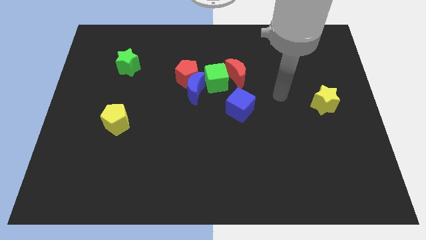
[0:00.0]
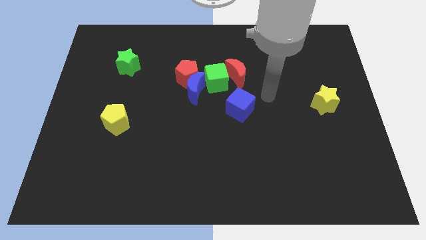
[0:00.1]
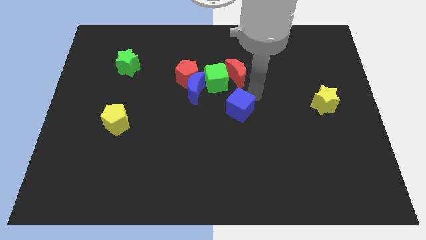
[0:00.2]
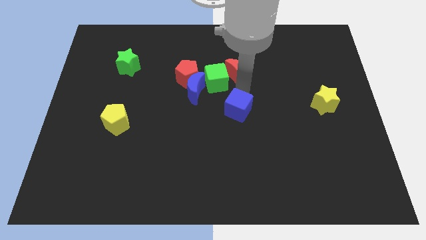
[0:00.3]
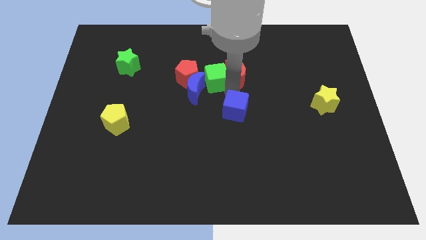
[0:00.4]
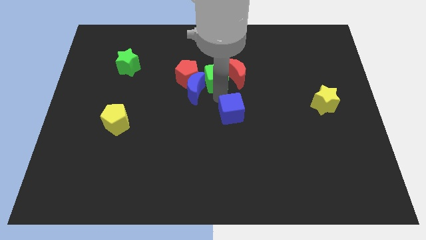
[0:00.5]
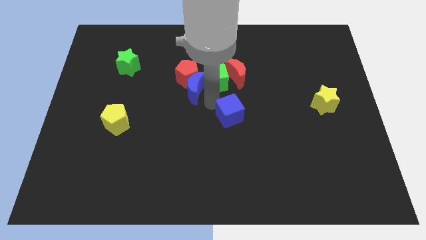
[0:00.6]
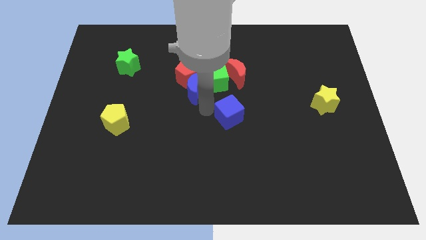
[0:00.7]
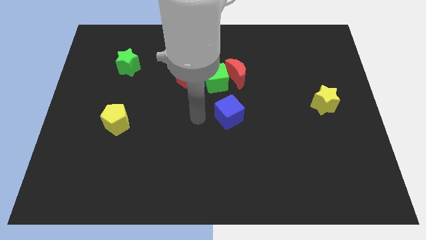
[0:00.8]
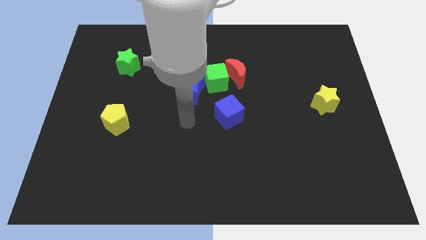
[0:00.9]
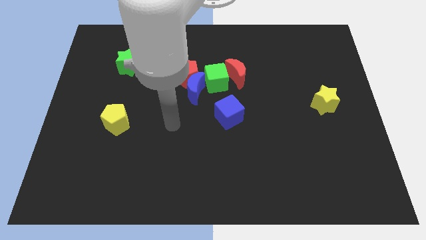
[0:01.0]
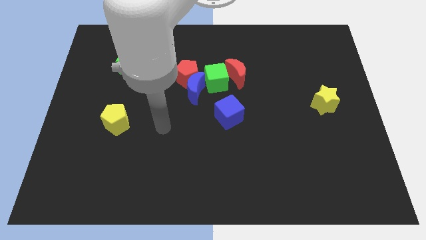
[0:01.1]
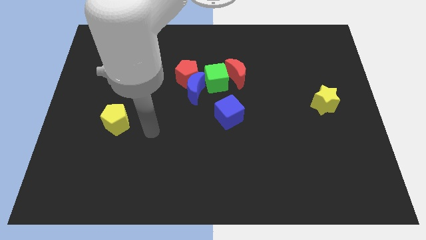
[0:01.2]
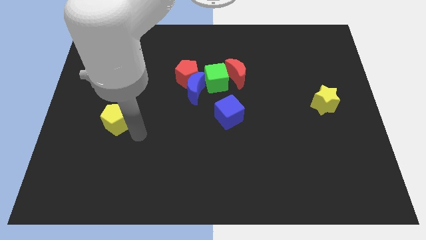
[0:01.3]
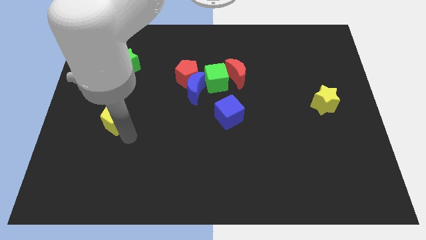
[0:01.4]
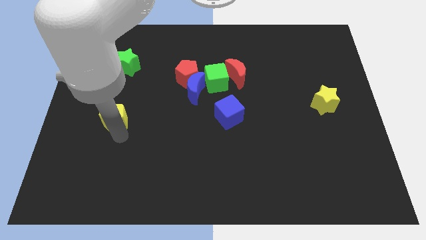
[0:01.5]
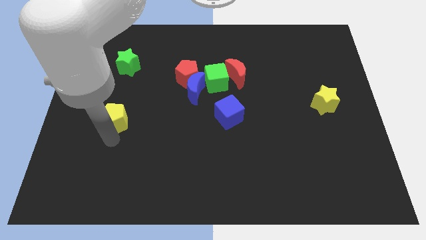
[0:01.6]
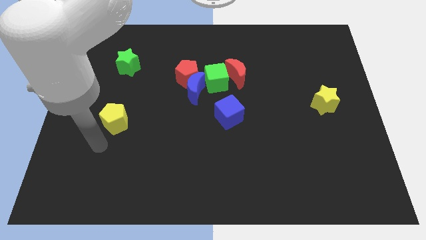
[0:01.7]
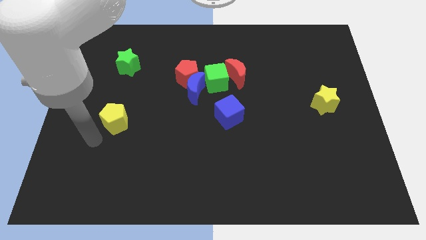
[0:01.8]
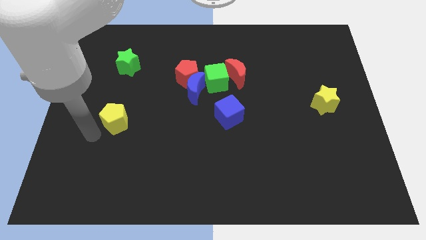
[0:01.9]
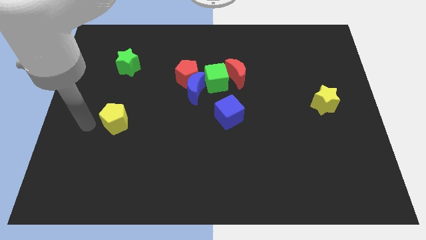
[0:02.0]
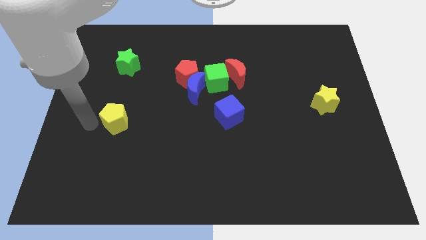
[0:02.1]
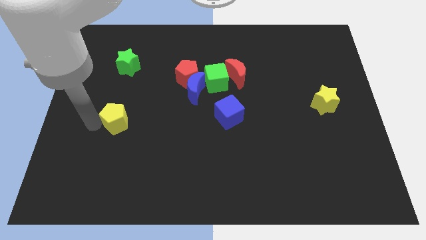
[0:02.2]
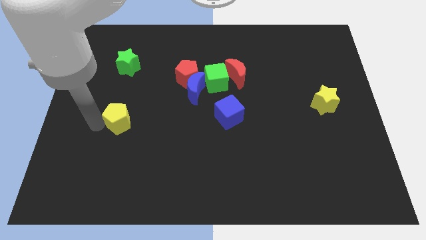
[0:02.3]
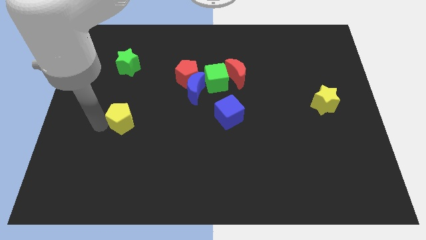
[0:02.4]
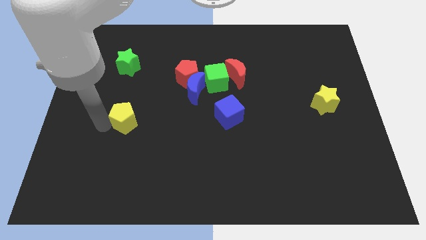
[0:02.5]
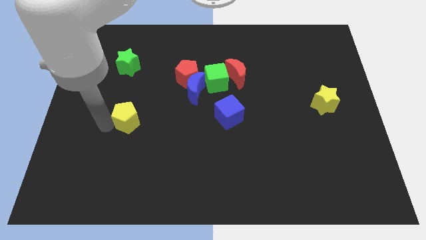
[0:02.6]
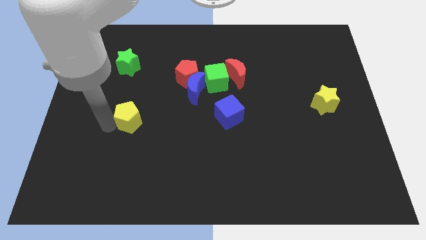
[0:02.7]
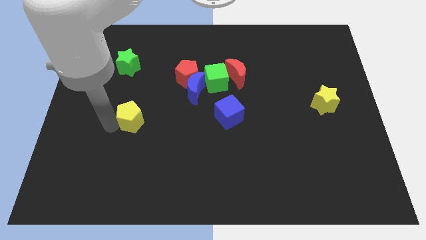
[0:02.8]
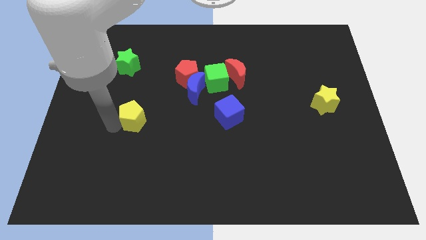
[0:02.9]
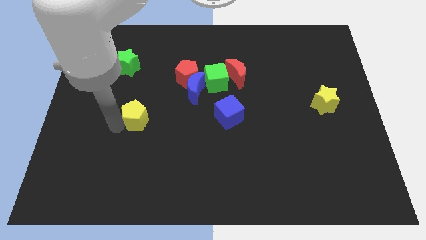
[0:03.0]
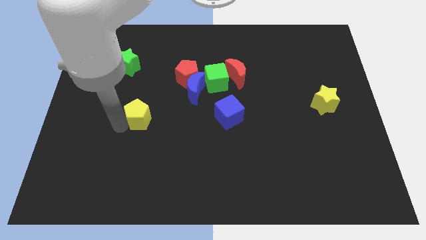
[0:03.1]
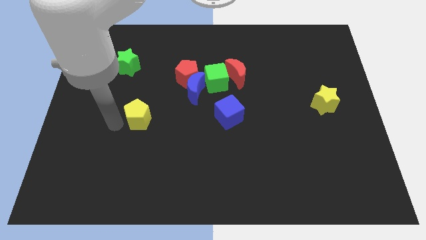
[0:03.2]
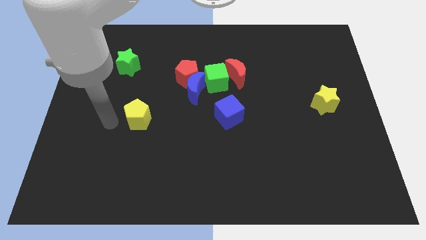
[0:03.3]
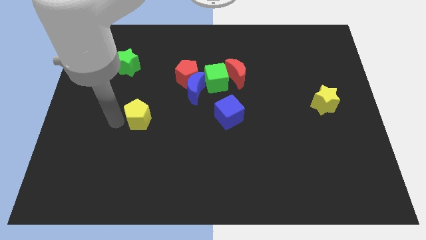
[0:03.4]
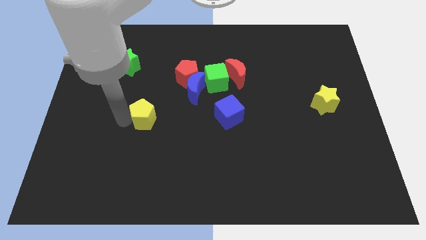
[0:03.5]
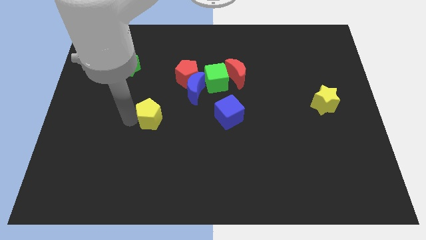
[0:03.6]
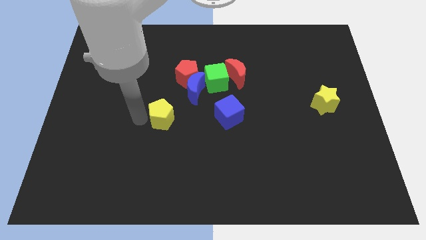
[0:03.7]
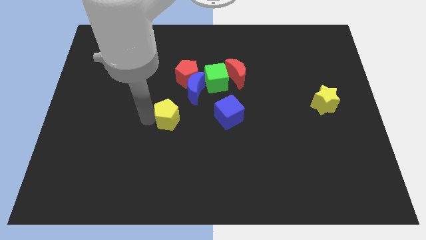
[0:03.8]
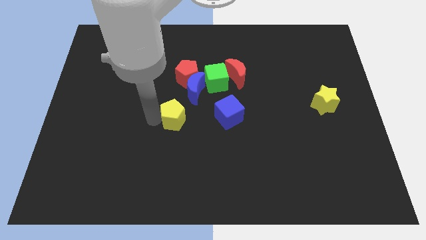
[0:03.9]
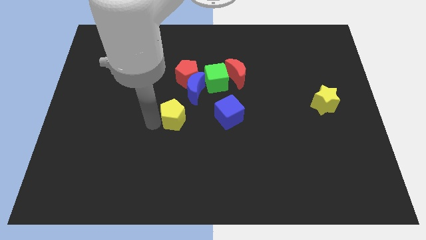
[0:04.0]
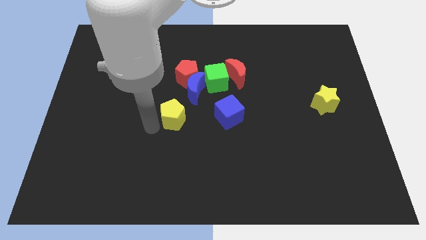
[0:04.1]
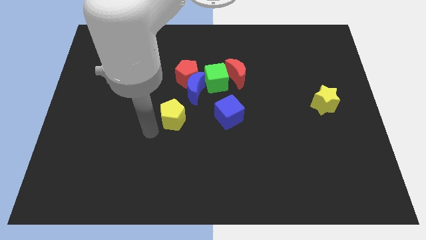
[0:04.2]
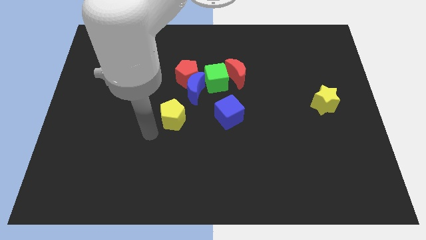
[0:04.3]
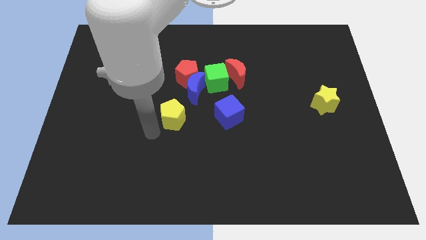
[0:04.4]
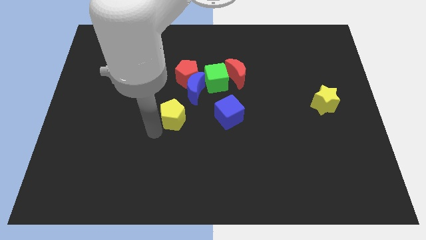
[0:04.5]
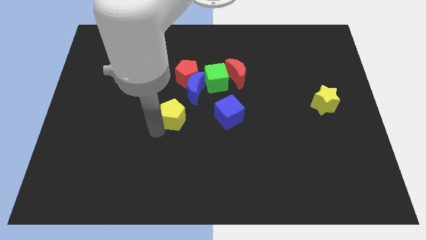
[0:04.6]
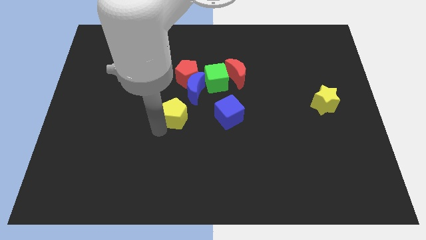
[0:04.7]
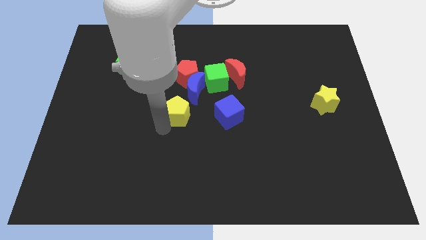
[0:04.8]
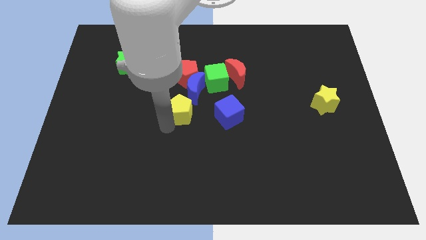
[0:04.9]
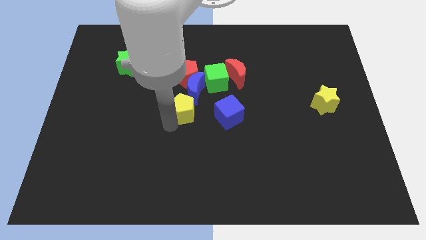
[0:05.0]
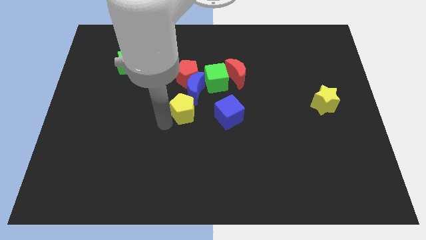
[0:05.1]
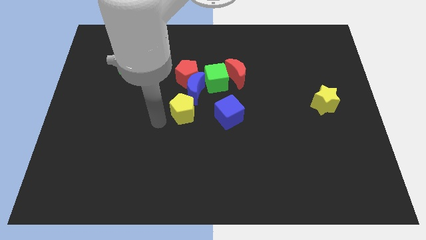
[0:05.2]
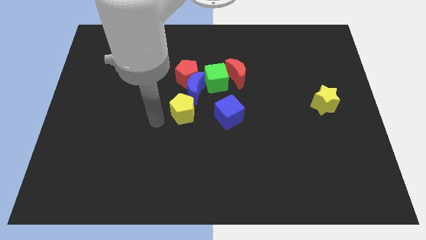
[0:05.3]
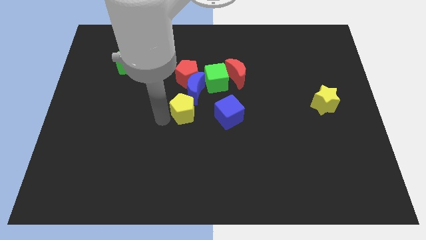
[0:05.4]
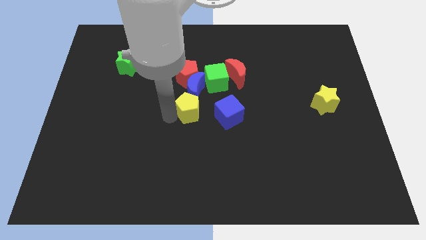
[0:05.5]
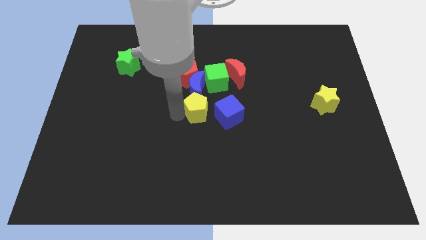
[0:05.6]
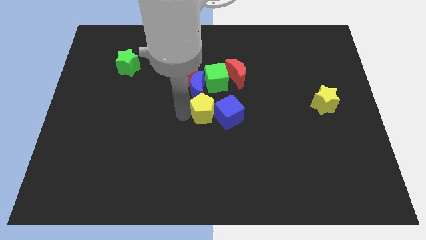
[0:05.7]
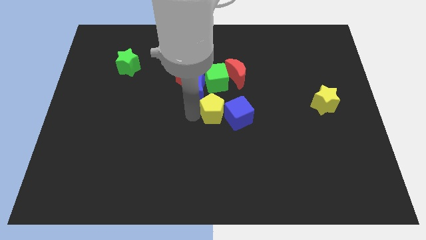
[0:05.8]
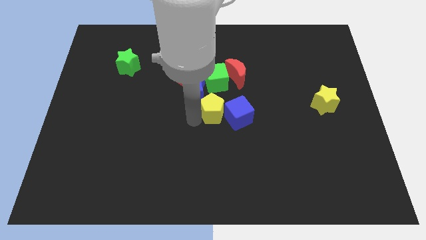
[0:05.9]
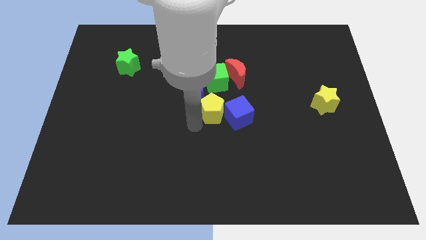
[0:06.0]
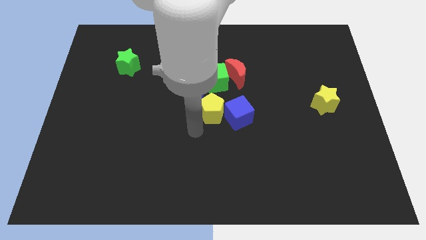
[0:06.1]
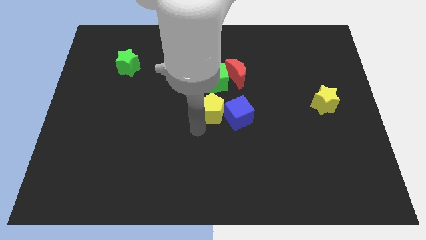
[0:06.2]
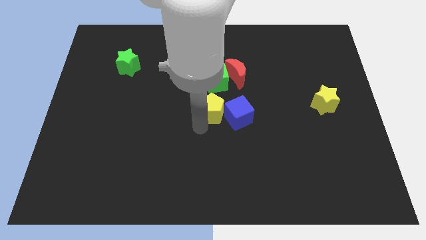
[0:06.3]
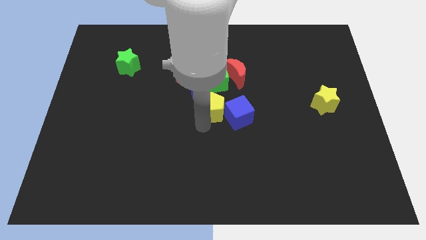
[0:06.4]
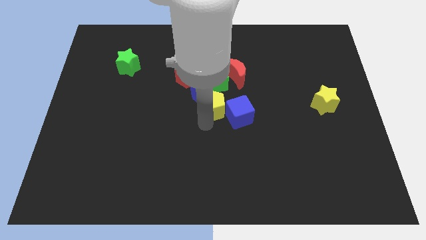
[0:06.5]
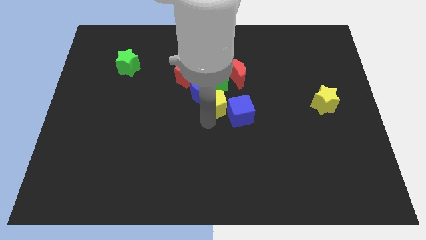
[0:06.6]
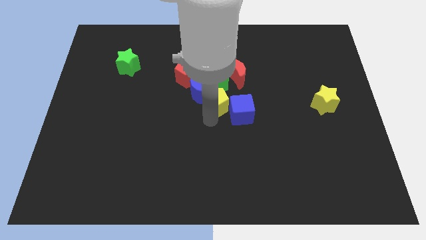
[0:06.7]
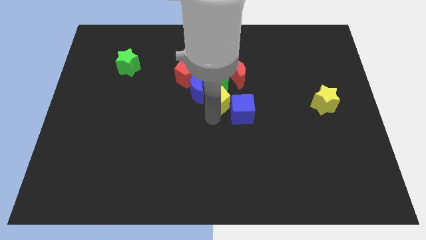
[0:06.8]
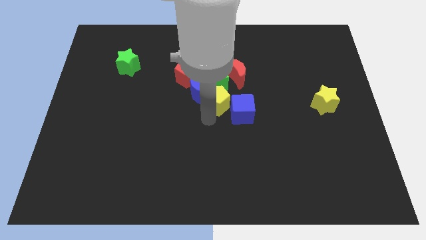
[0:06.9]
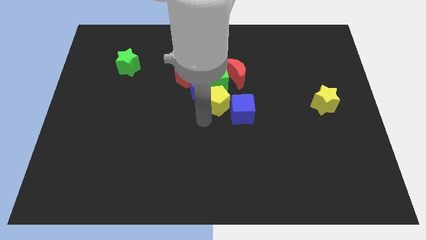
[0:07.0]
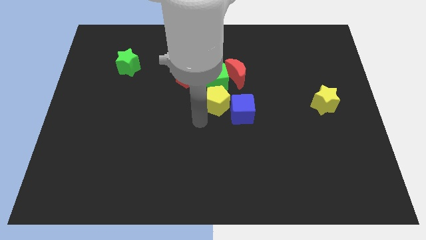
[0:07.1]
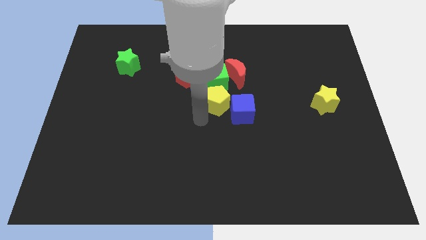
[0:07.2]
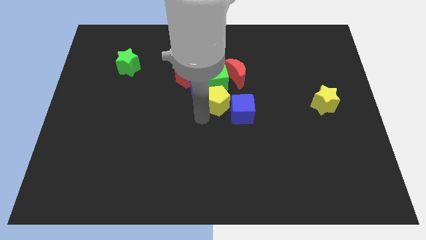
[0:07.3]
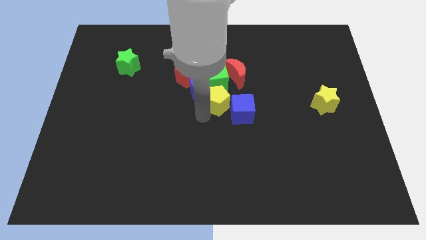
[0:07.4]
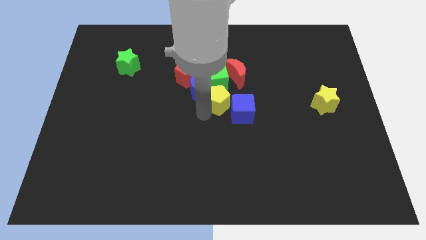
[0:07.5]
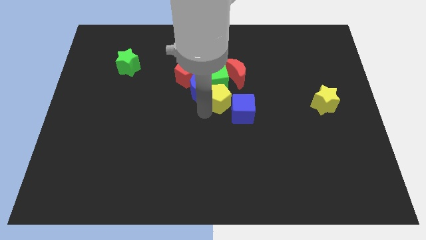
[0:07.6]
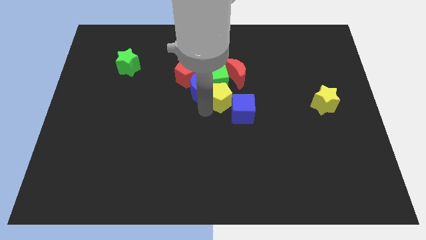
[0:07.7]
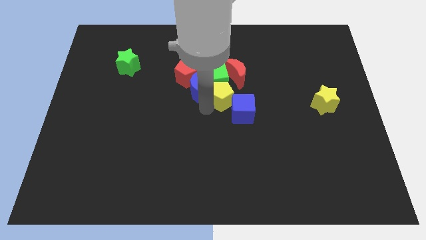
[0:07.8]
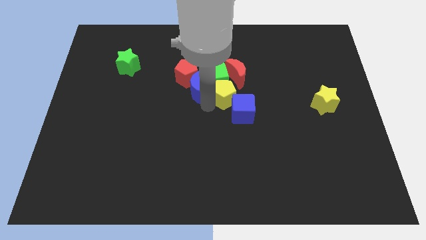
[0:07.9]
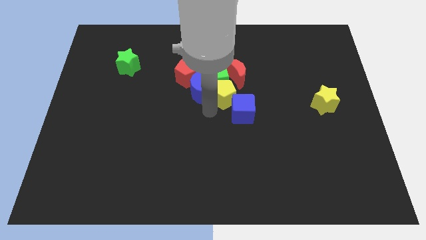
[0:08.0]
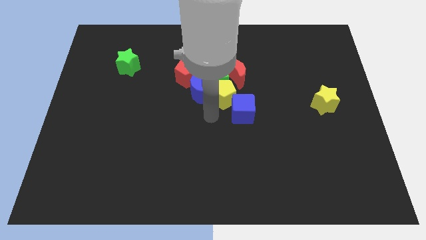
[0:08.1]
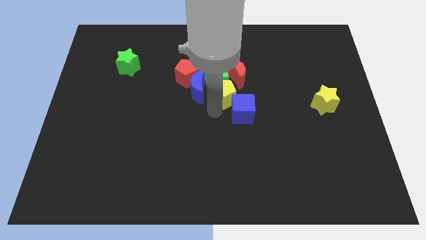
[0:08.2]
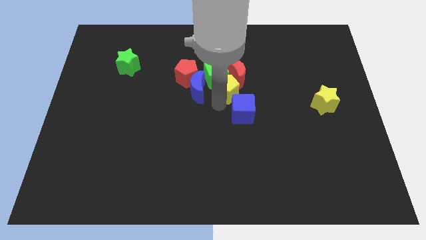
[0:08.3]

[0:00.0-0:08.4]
push the yellow pentagon to the red moon
